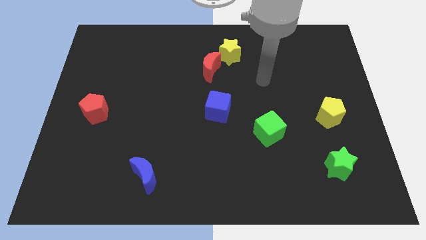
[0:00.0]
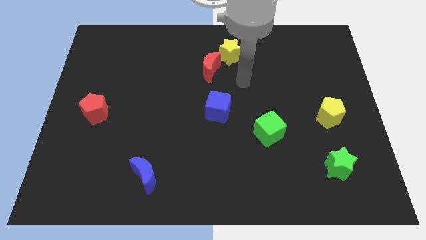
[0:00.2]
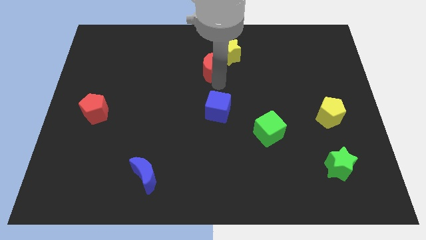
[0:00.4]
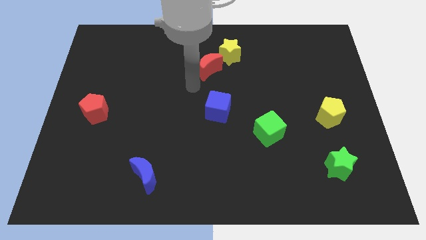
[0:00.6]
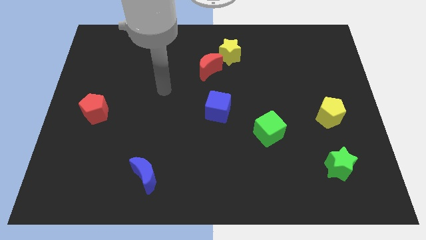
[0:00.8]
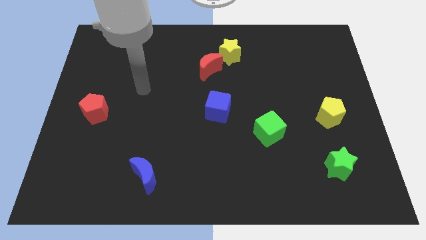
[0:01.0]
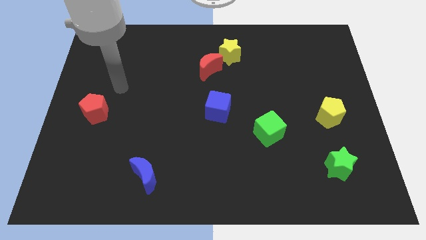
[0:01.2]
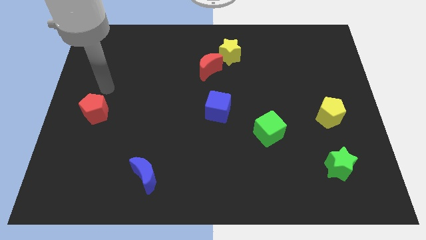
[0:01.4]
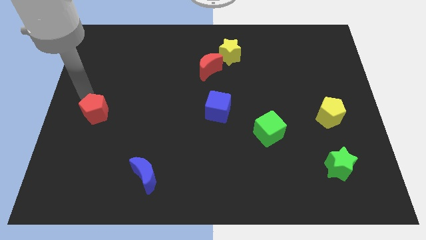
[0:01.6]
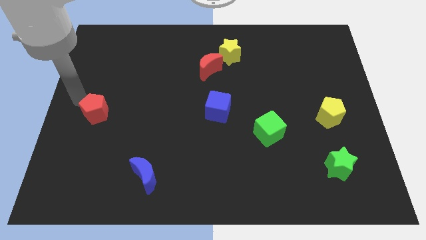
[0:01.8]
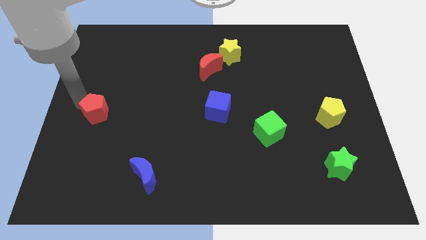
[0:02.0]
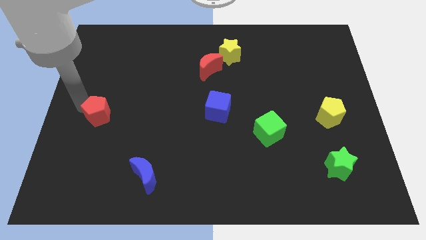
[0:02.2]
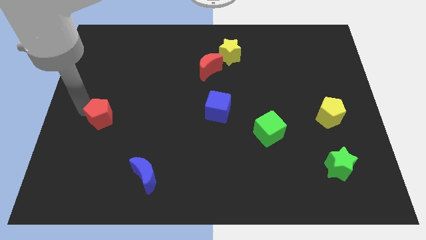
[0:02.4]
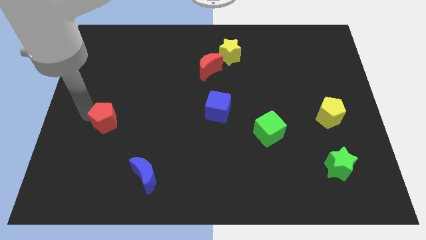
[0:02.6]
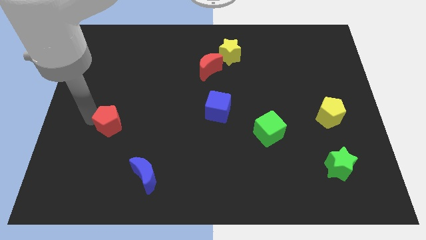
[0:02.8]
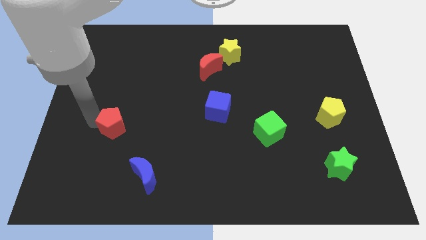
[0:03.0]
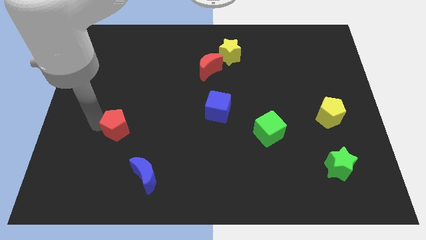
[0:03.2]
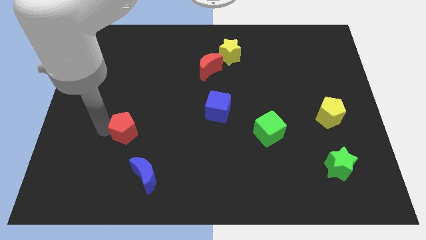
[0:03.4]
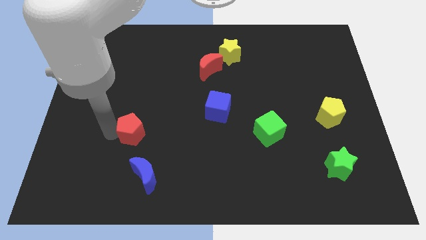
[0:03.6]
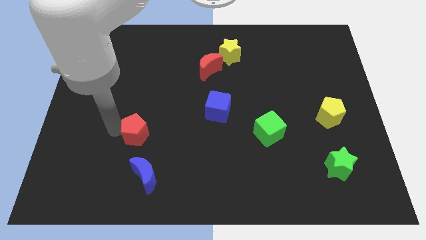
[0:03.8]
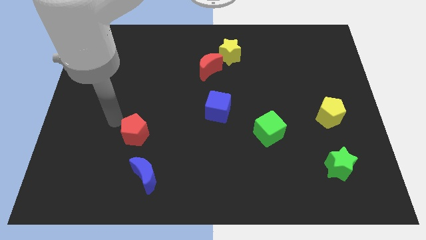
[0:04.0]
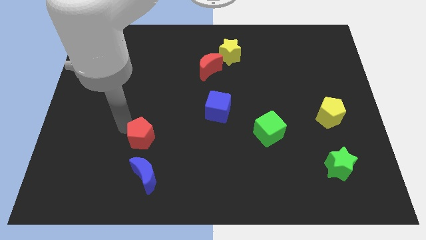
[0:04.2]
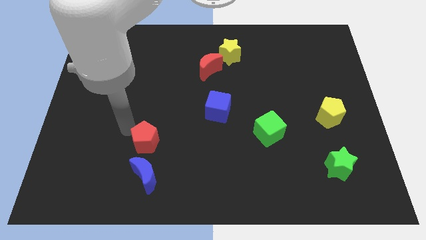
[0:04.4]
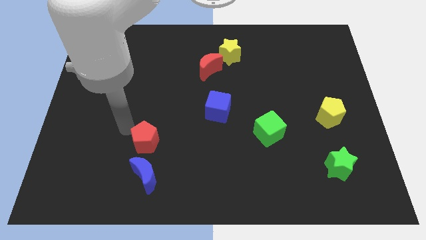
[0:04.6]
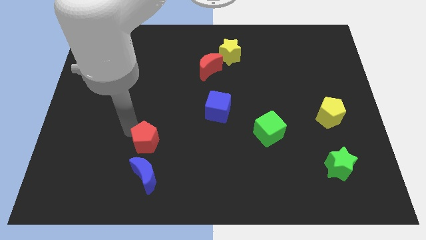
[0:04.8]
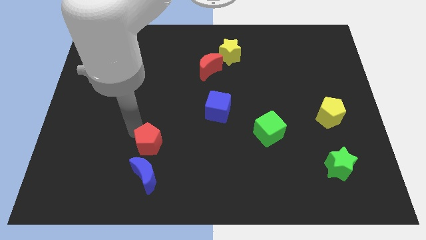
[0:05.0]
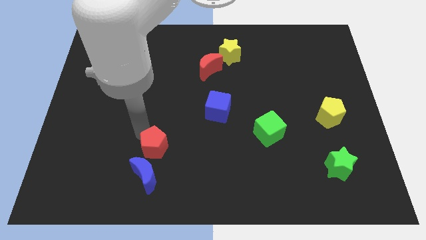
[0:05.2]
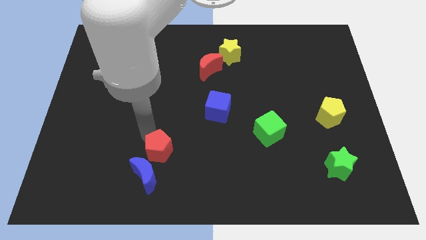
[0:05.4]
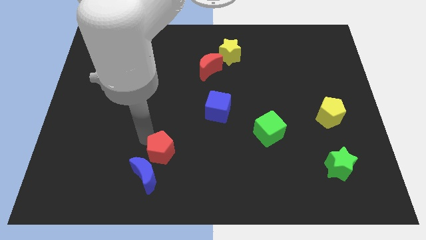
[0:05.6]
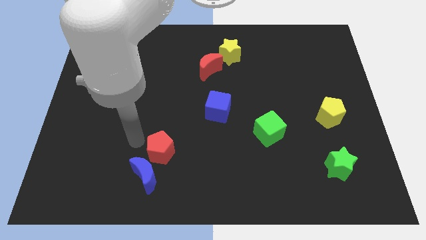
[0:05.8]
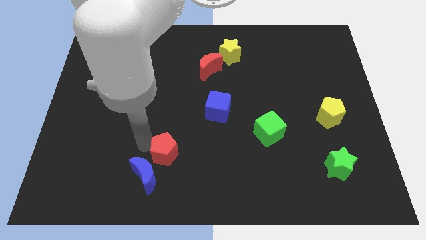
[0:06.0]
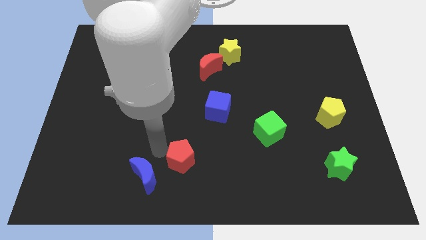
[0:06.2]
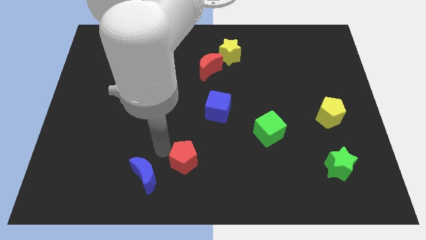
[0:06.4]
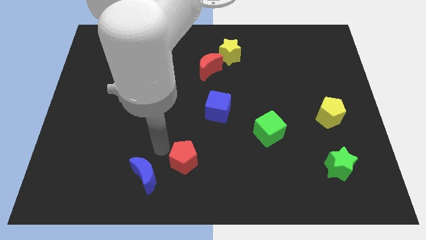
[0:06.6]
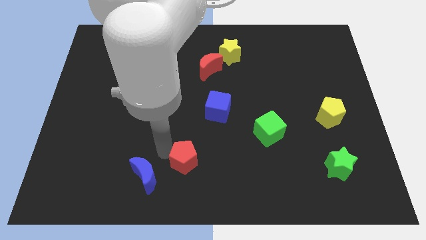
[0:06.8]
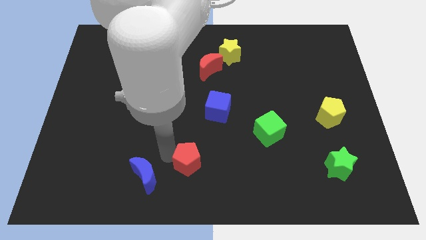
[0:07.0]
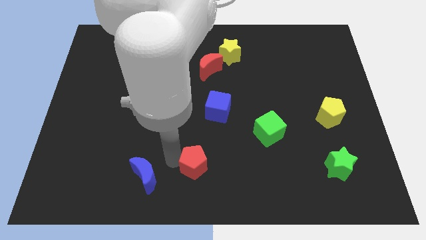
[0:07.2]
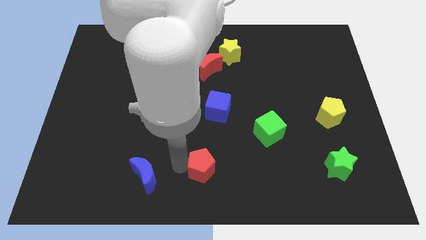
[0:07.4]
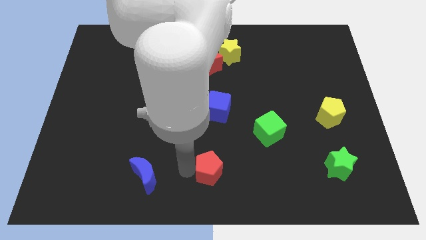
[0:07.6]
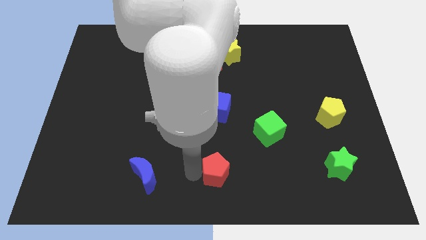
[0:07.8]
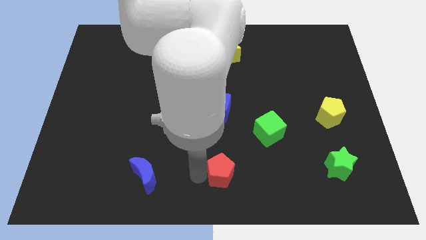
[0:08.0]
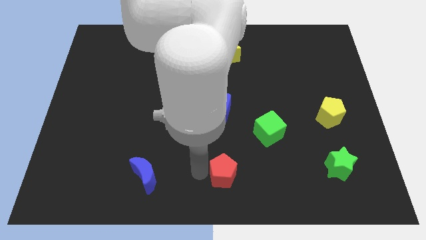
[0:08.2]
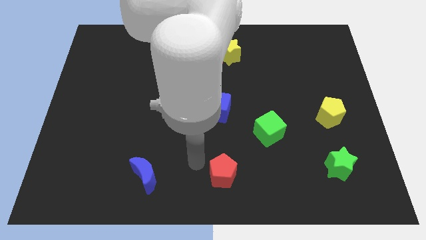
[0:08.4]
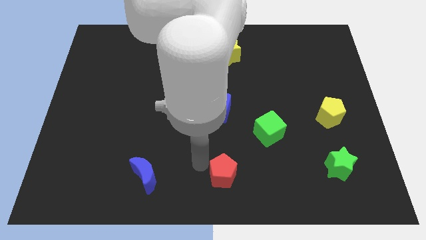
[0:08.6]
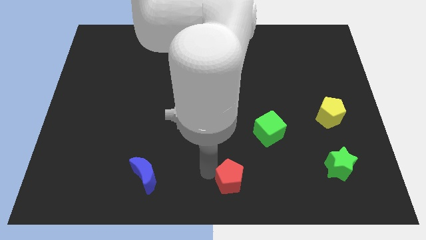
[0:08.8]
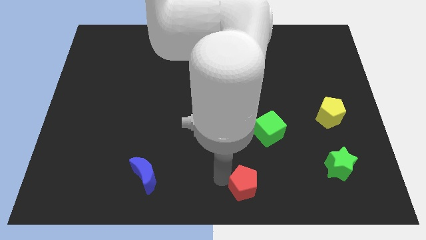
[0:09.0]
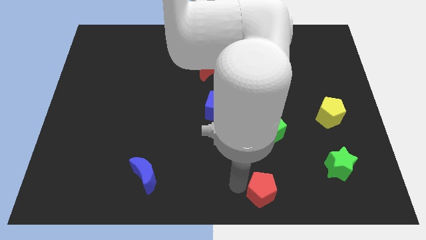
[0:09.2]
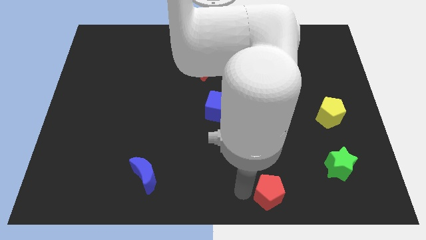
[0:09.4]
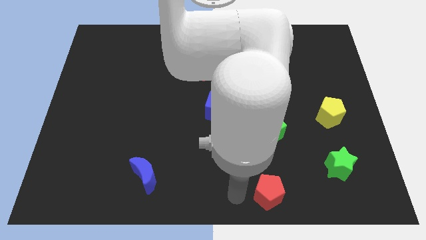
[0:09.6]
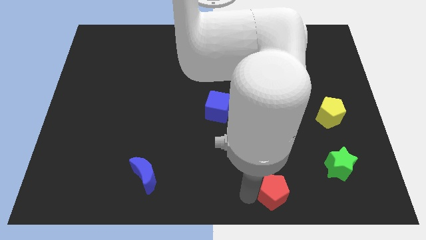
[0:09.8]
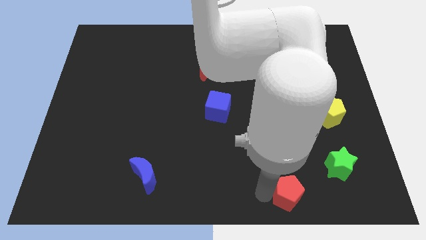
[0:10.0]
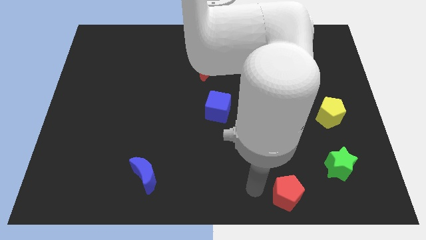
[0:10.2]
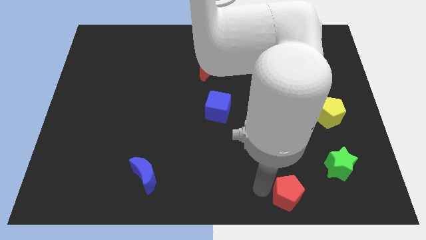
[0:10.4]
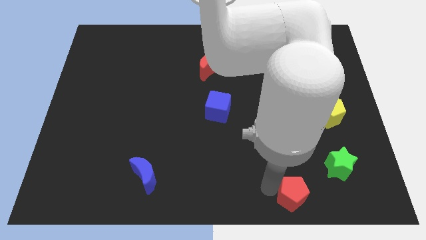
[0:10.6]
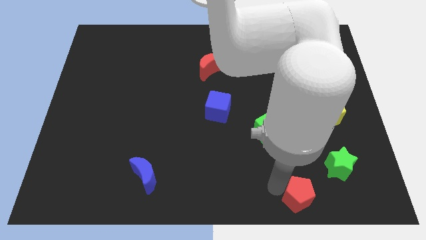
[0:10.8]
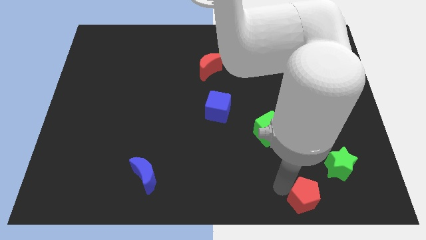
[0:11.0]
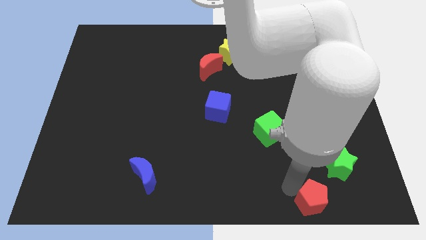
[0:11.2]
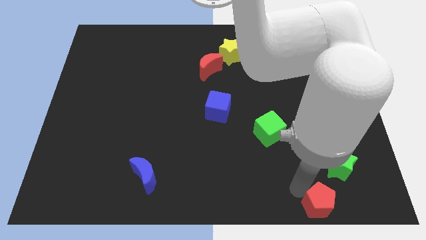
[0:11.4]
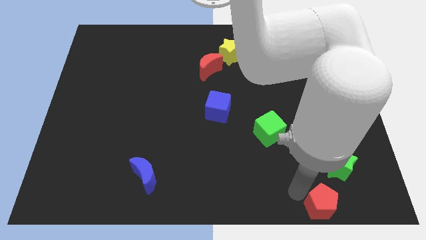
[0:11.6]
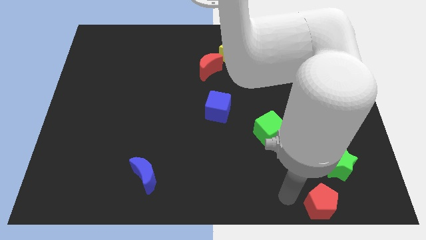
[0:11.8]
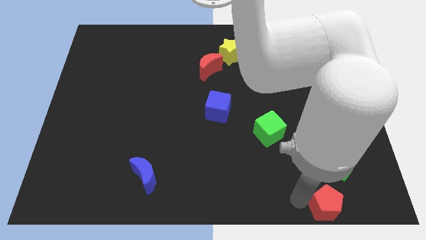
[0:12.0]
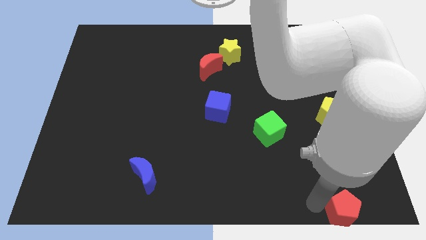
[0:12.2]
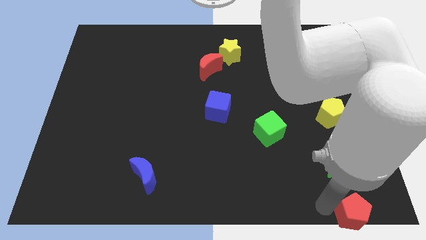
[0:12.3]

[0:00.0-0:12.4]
slide the red pentagon to the bottom right corner

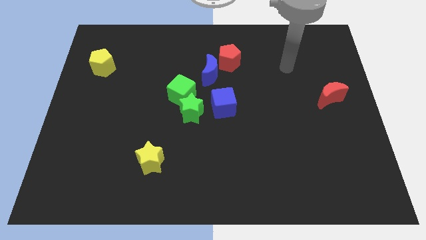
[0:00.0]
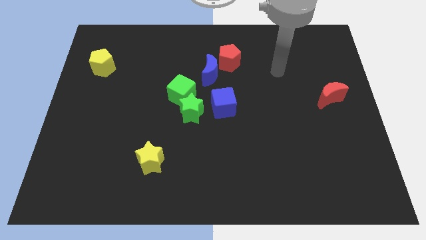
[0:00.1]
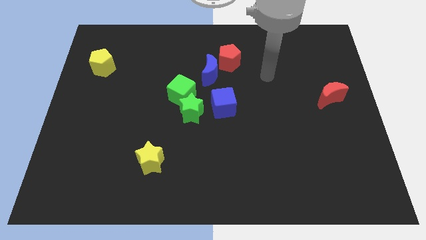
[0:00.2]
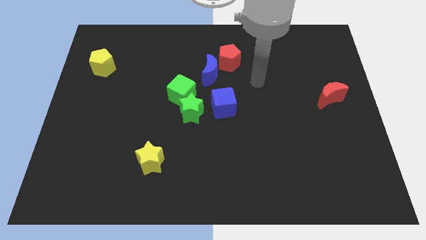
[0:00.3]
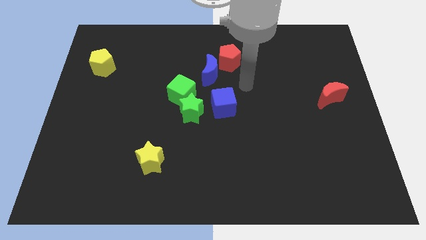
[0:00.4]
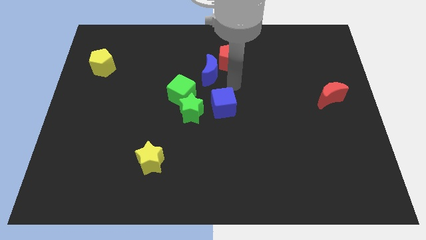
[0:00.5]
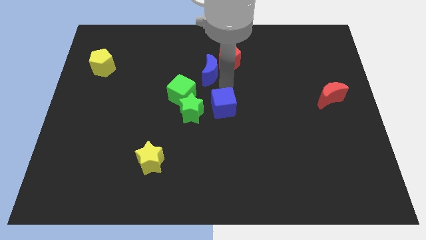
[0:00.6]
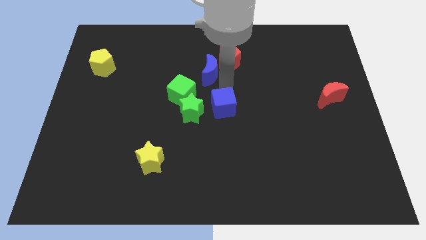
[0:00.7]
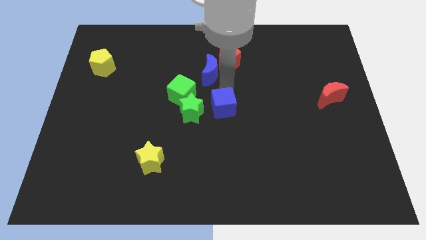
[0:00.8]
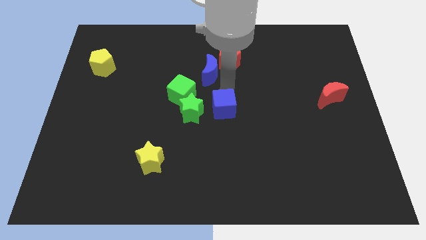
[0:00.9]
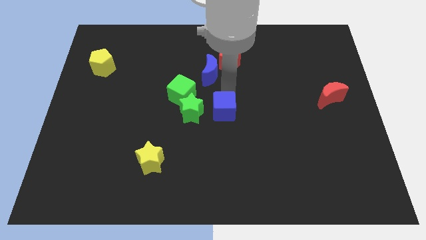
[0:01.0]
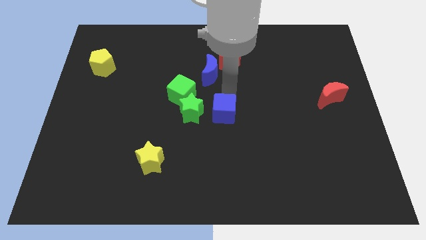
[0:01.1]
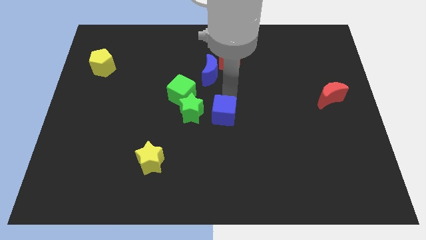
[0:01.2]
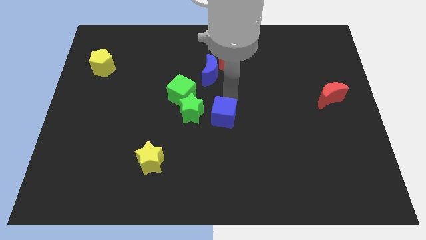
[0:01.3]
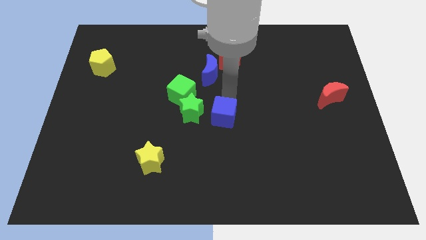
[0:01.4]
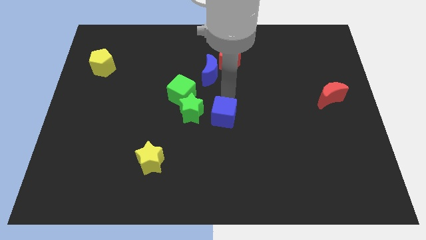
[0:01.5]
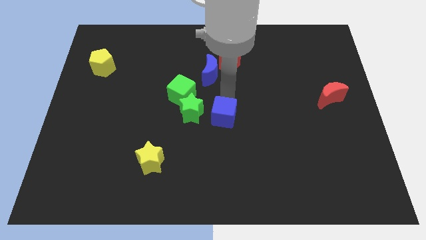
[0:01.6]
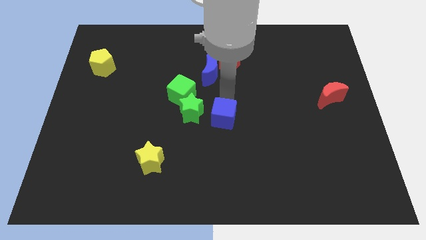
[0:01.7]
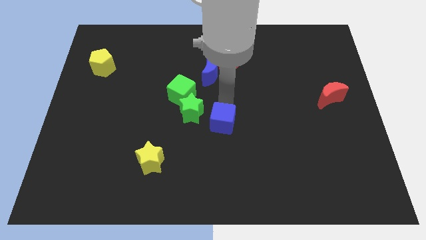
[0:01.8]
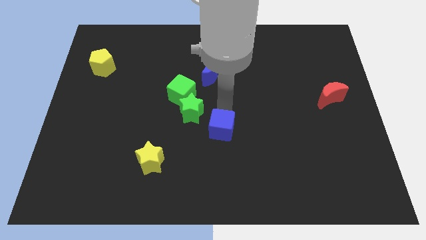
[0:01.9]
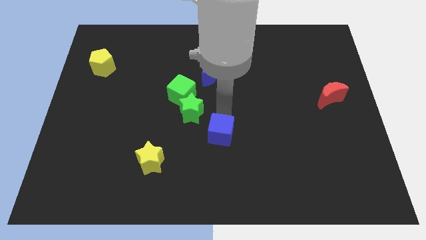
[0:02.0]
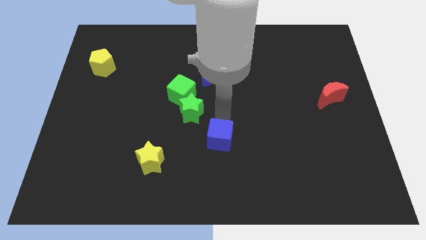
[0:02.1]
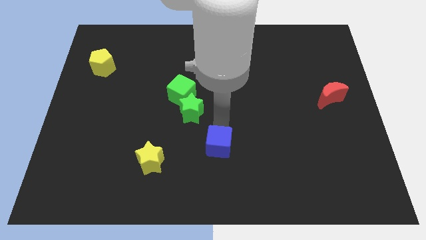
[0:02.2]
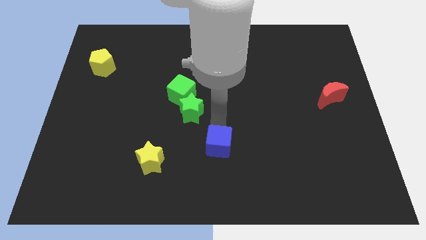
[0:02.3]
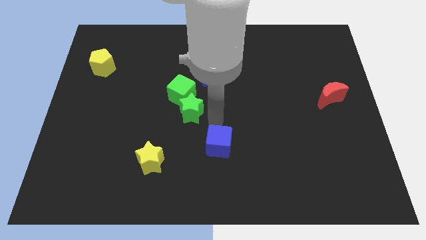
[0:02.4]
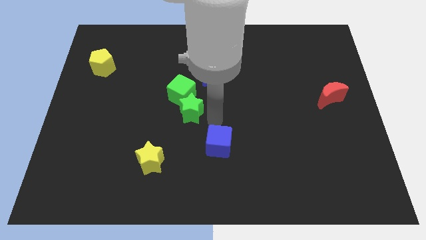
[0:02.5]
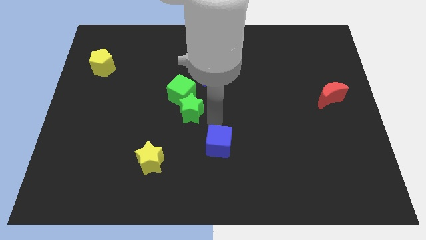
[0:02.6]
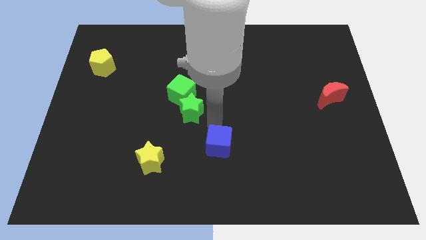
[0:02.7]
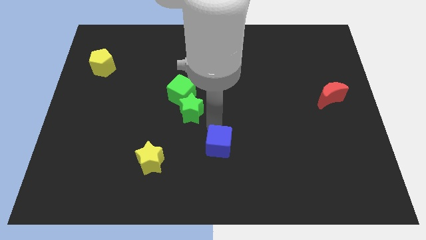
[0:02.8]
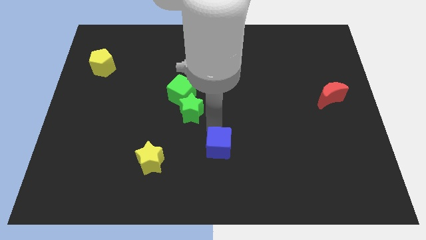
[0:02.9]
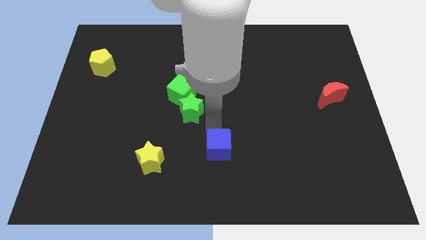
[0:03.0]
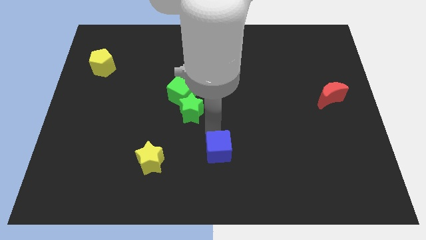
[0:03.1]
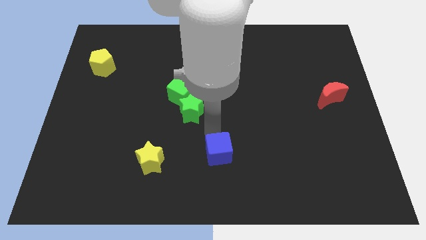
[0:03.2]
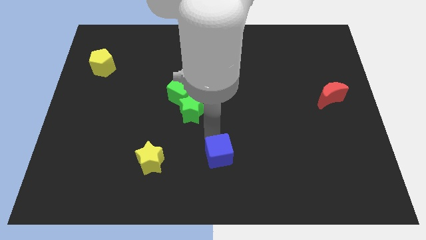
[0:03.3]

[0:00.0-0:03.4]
slide the blue cube to the bottom
